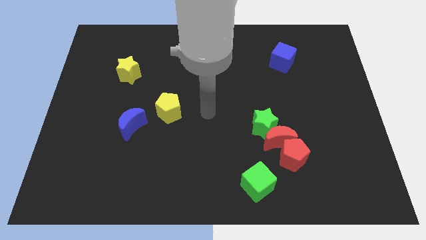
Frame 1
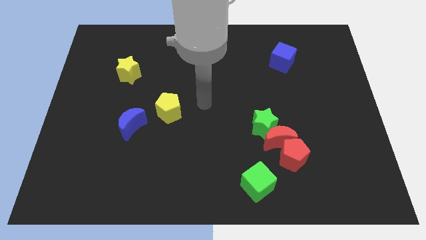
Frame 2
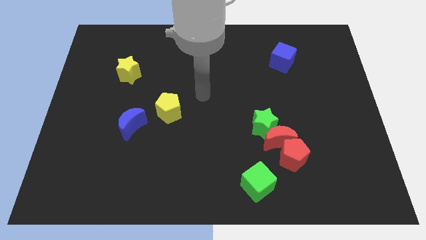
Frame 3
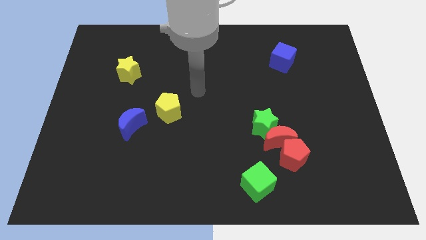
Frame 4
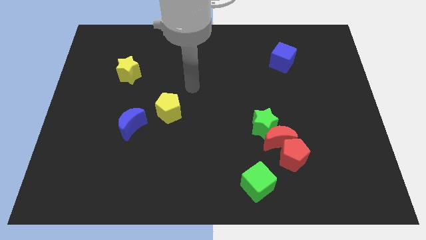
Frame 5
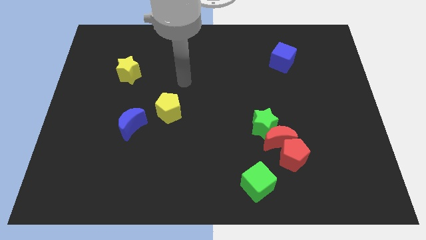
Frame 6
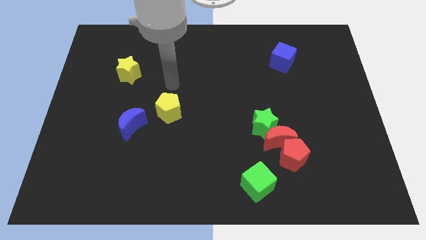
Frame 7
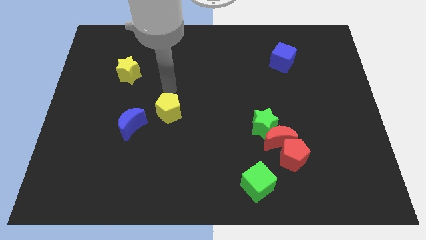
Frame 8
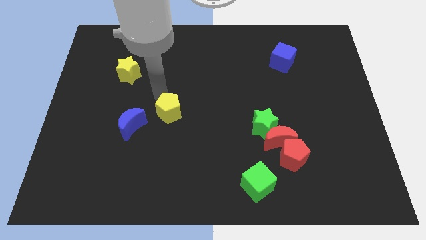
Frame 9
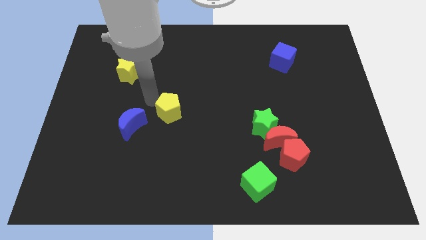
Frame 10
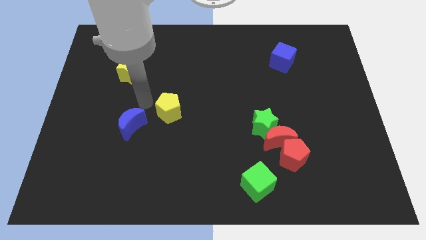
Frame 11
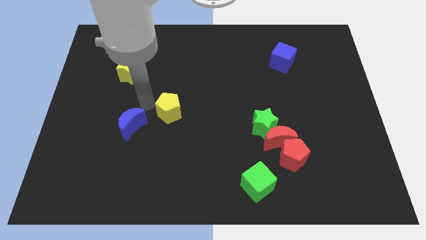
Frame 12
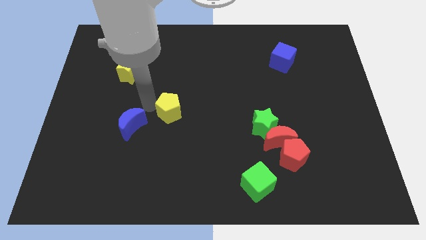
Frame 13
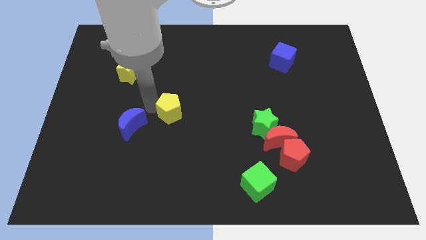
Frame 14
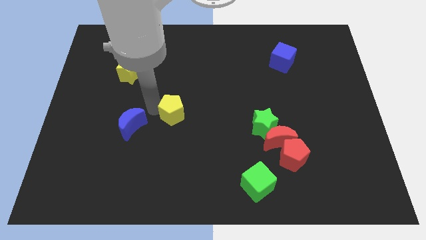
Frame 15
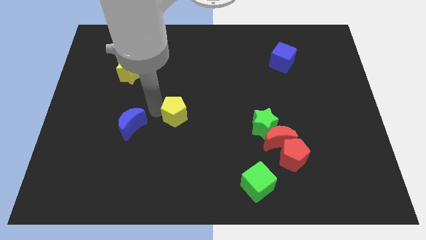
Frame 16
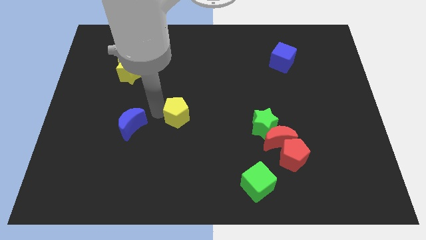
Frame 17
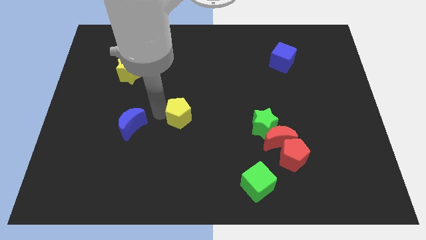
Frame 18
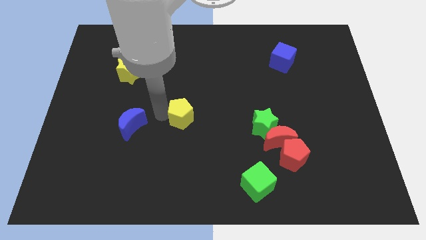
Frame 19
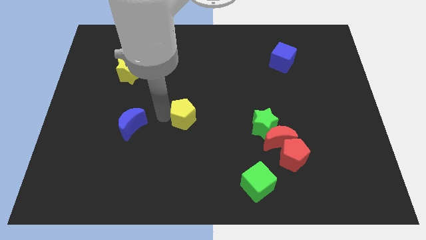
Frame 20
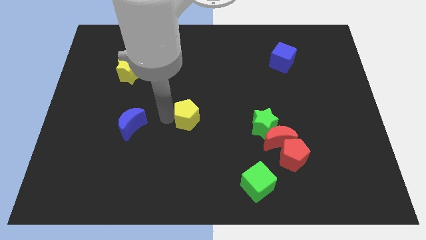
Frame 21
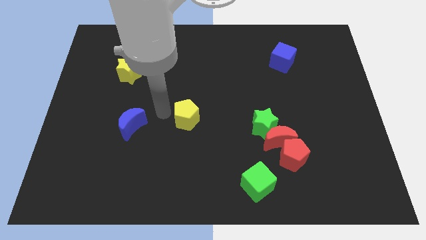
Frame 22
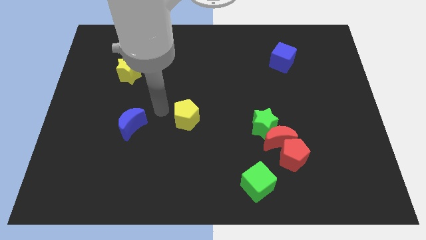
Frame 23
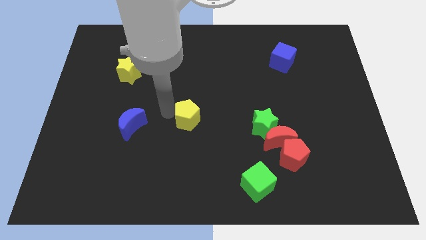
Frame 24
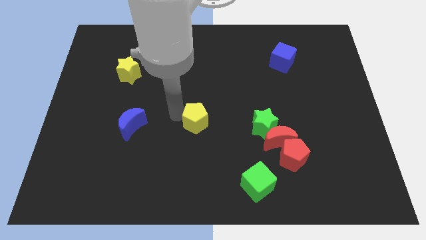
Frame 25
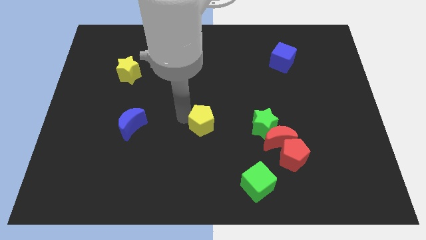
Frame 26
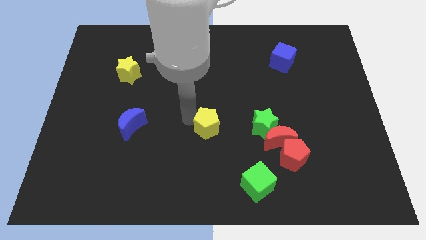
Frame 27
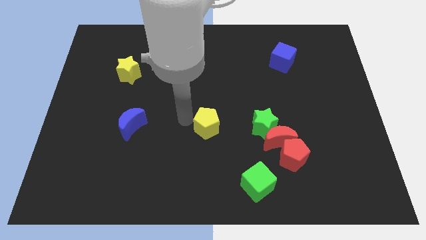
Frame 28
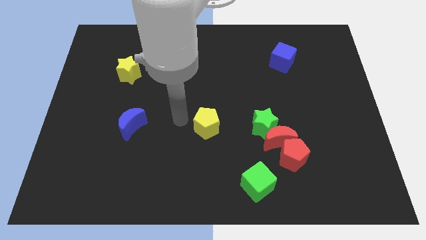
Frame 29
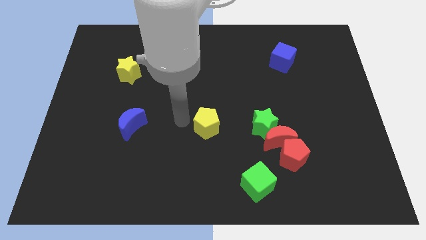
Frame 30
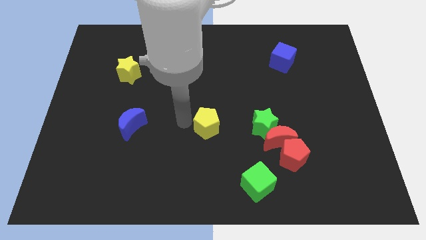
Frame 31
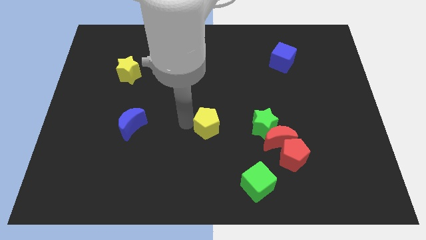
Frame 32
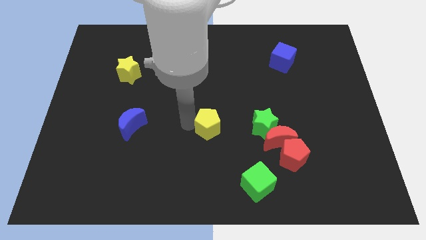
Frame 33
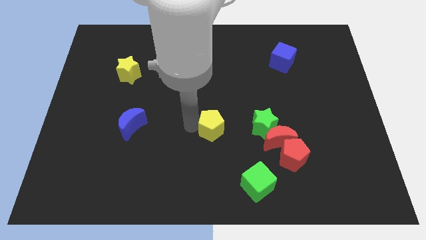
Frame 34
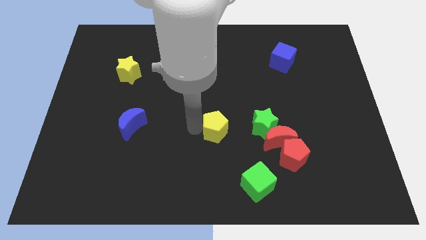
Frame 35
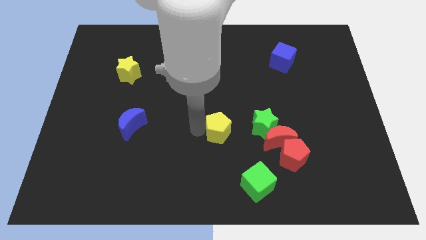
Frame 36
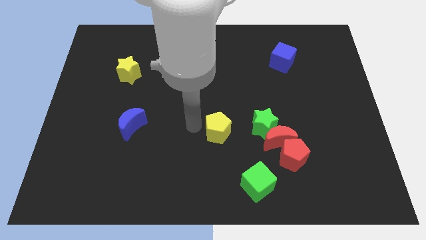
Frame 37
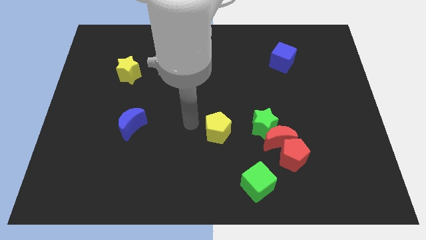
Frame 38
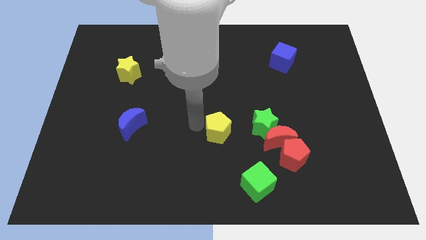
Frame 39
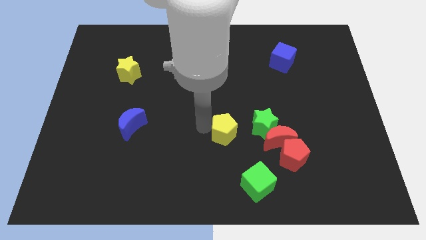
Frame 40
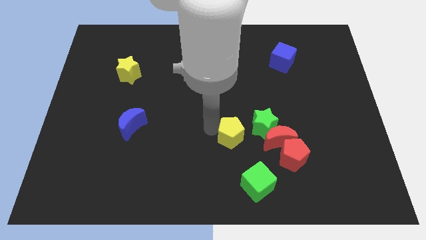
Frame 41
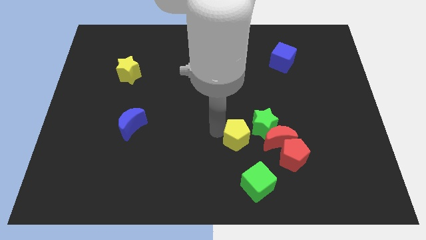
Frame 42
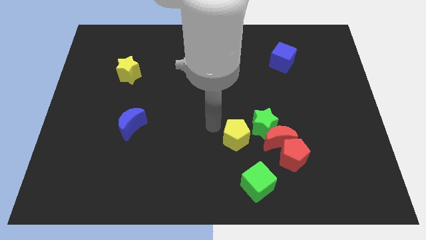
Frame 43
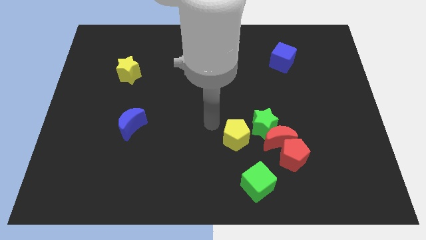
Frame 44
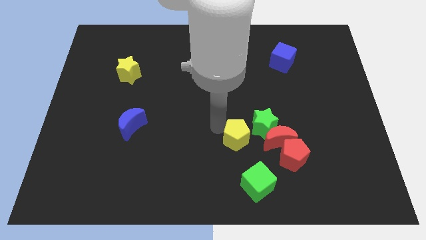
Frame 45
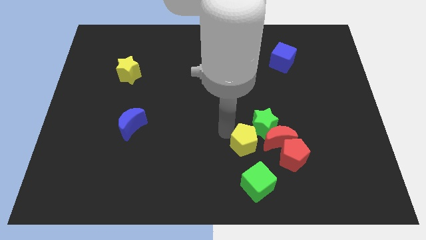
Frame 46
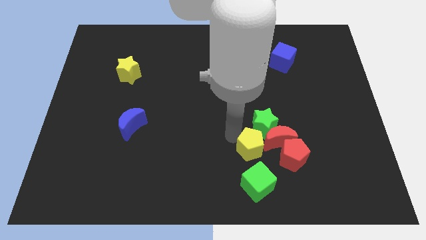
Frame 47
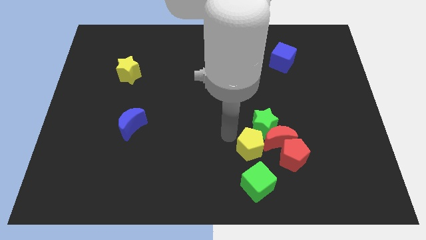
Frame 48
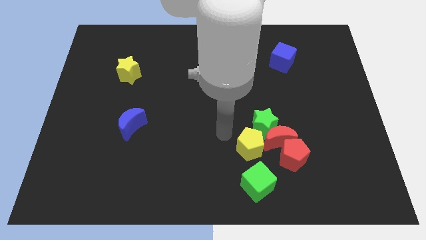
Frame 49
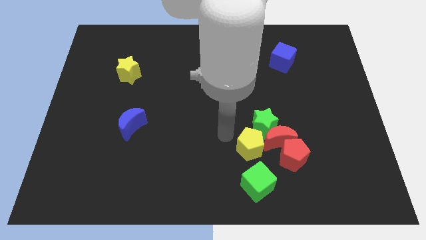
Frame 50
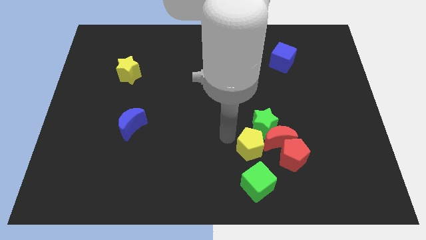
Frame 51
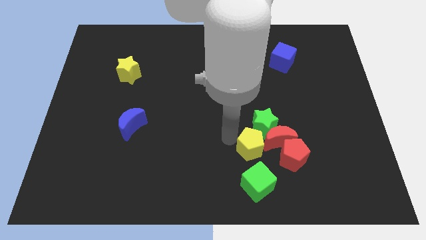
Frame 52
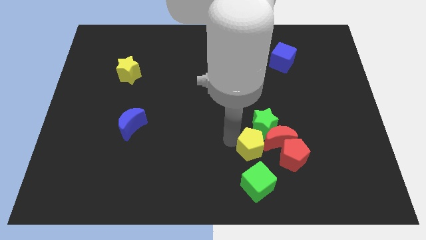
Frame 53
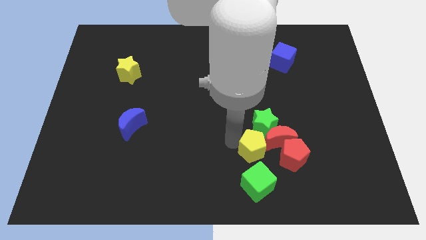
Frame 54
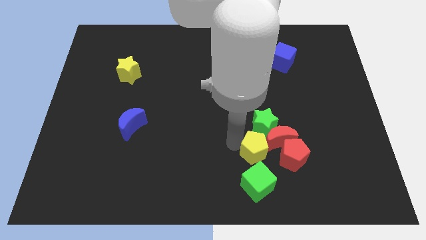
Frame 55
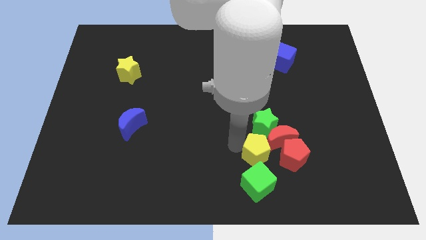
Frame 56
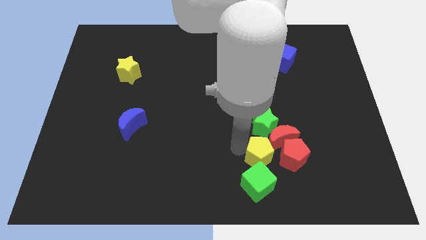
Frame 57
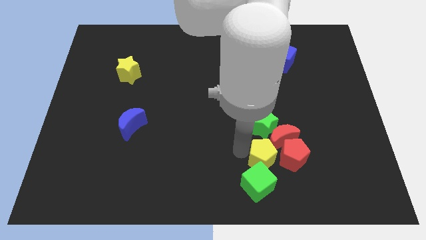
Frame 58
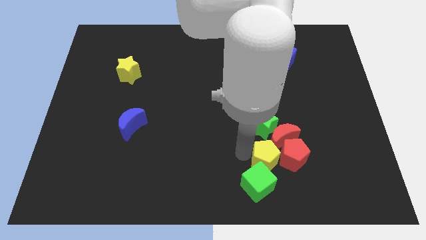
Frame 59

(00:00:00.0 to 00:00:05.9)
move the yellow pentagon towards the red pentagon

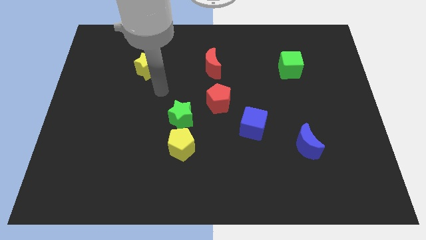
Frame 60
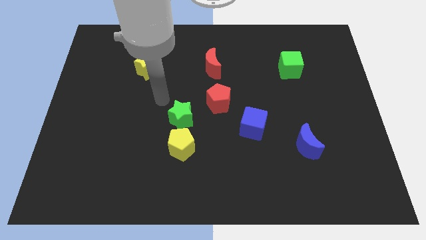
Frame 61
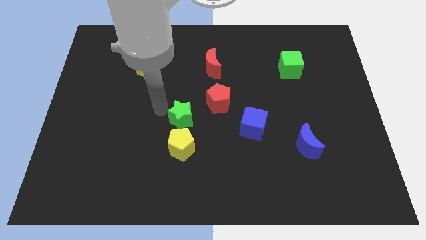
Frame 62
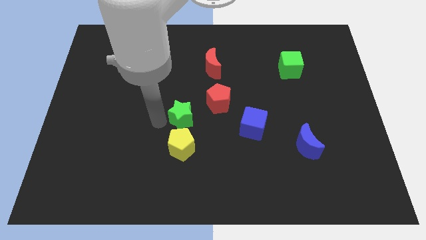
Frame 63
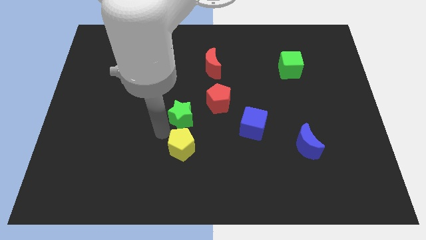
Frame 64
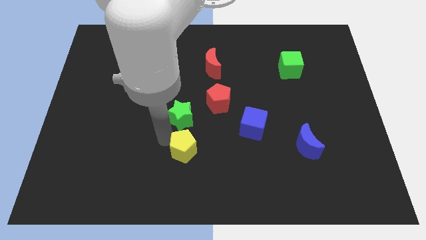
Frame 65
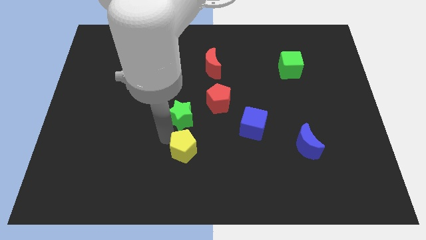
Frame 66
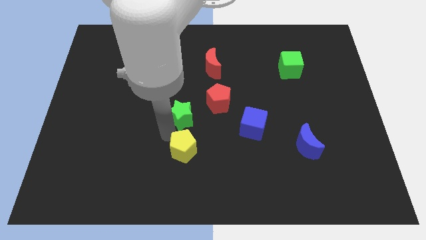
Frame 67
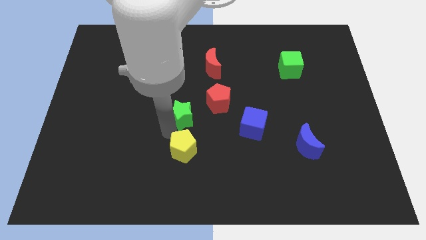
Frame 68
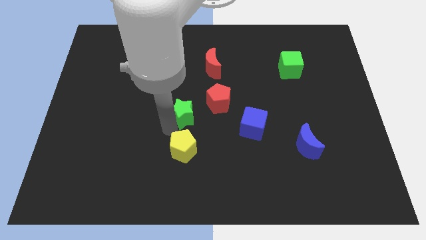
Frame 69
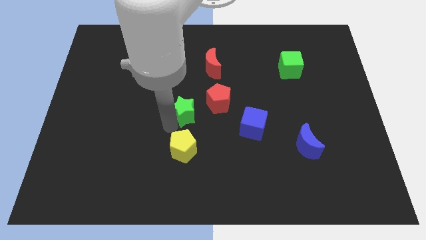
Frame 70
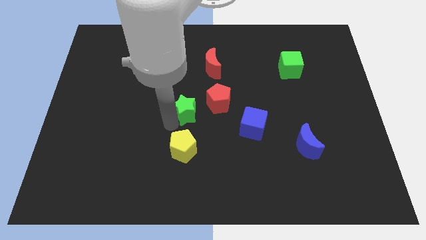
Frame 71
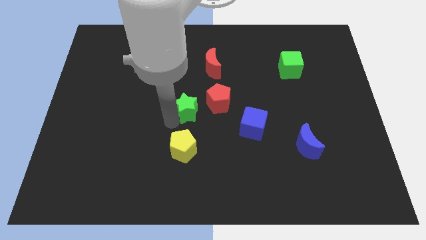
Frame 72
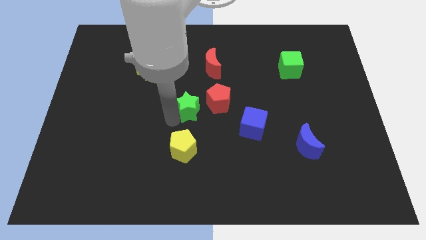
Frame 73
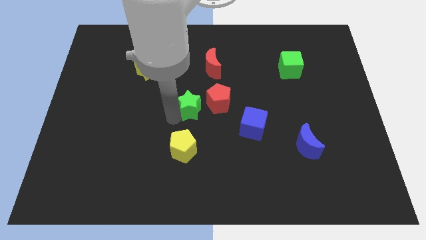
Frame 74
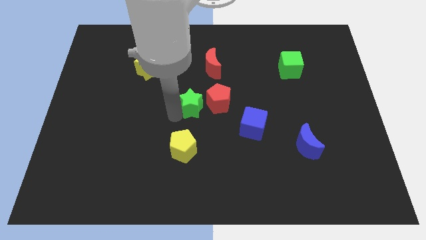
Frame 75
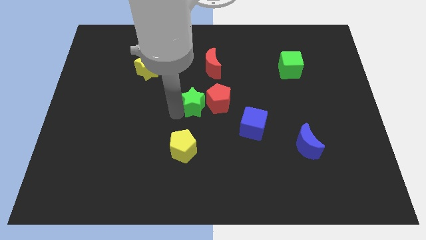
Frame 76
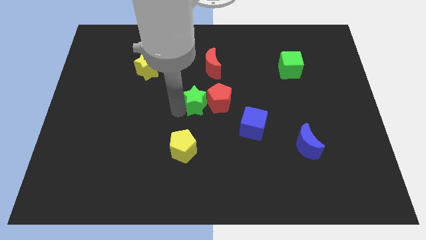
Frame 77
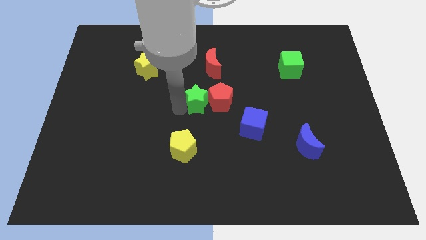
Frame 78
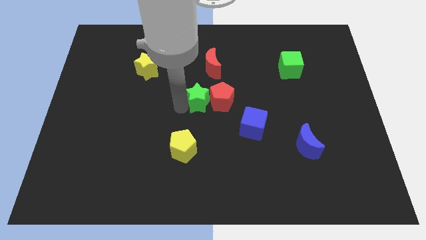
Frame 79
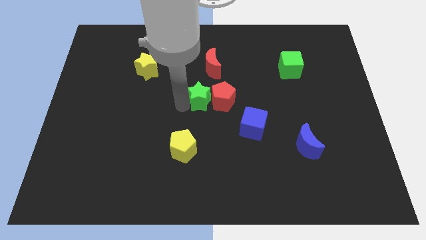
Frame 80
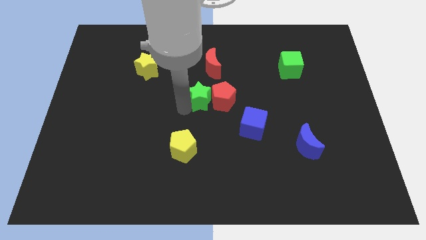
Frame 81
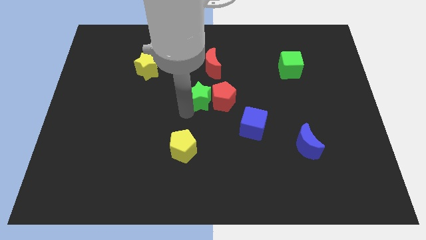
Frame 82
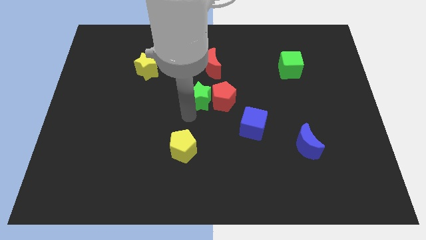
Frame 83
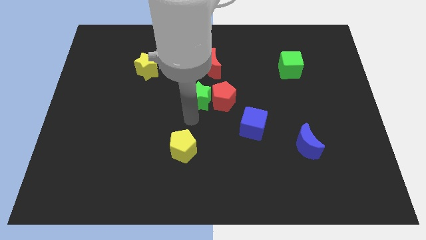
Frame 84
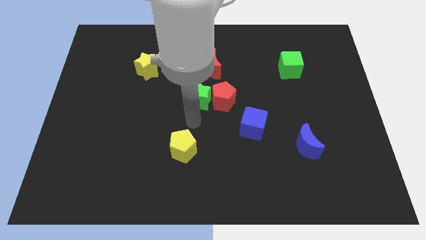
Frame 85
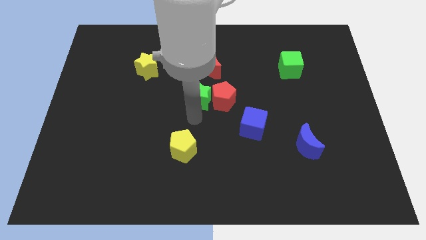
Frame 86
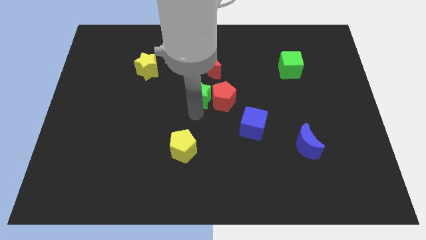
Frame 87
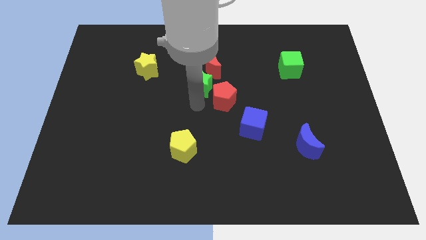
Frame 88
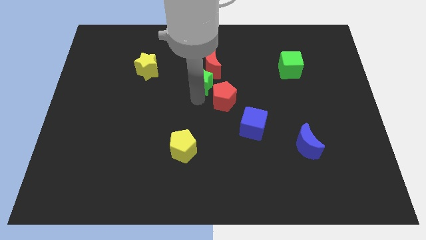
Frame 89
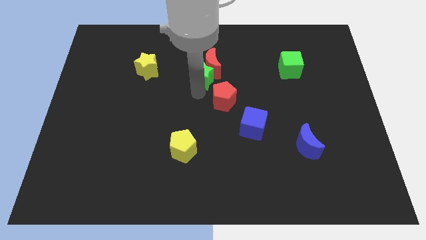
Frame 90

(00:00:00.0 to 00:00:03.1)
move the green star towards the red moon
